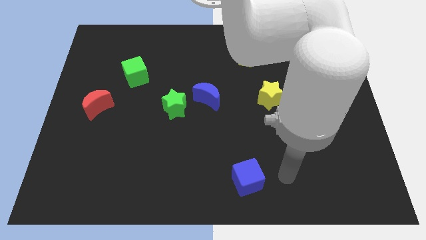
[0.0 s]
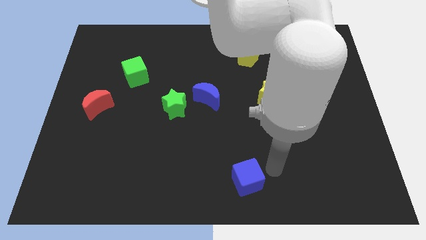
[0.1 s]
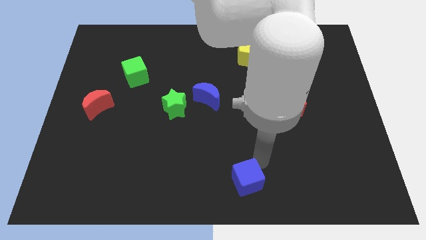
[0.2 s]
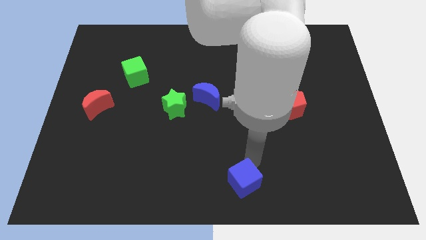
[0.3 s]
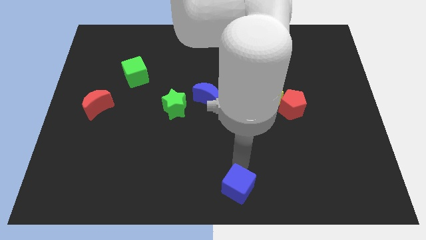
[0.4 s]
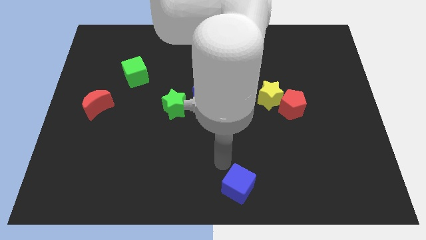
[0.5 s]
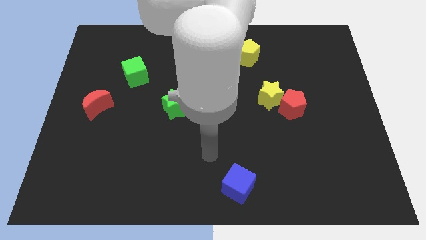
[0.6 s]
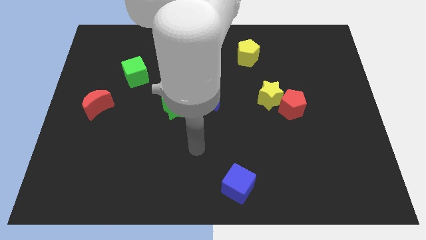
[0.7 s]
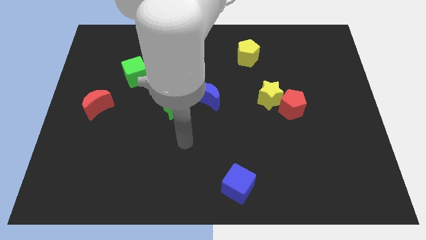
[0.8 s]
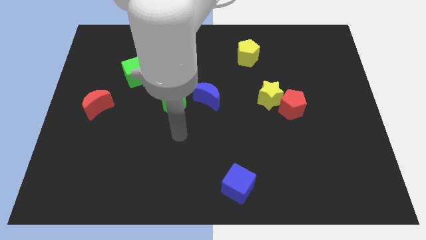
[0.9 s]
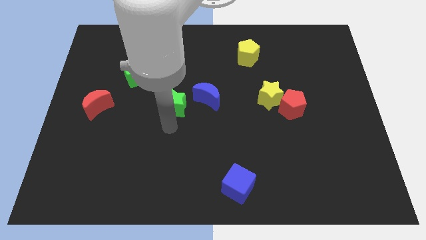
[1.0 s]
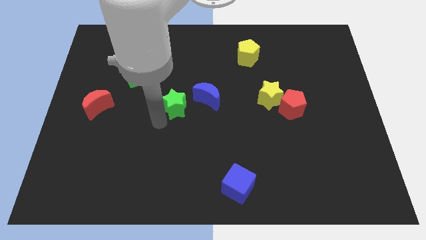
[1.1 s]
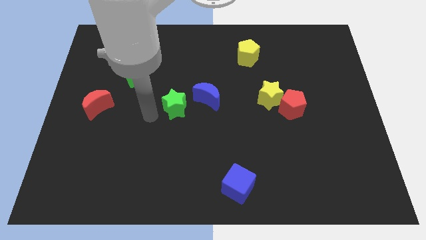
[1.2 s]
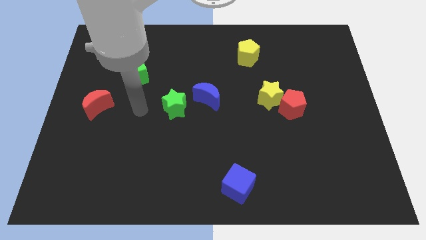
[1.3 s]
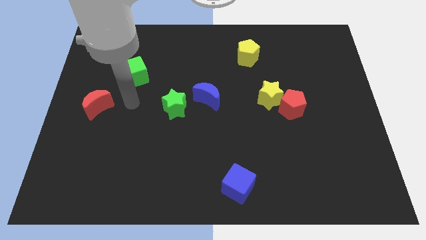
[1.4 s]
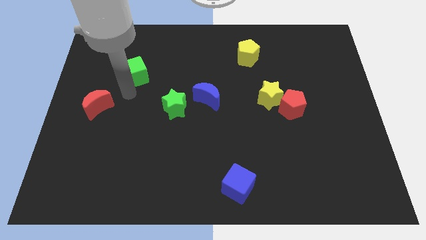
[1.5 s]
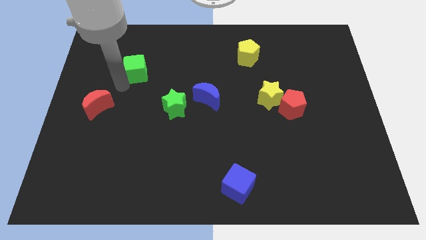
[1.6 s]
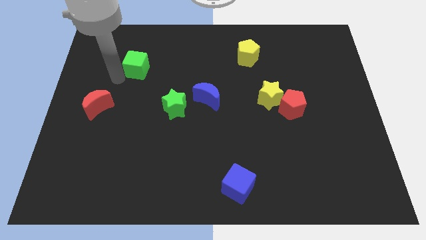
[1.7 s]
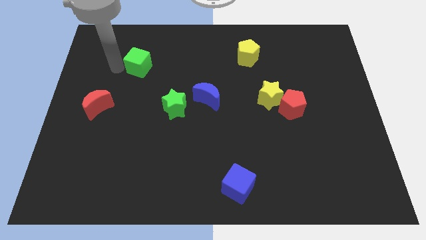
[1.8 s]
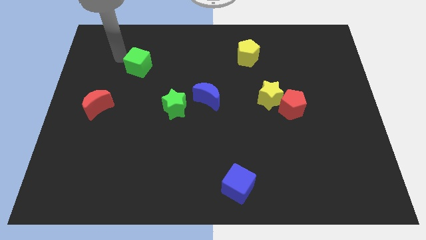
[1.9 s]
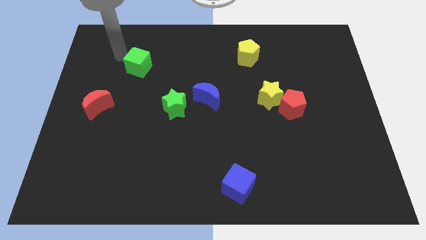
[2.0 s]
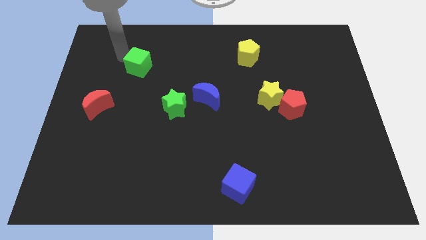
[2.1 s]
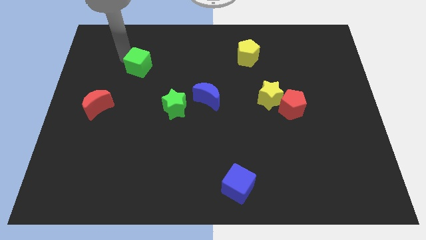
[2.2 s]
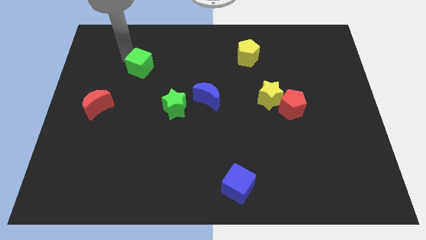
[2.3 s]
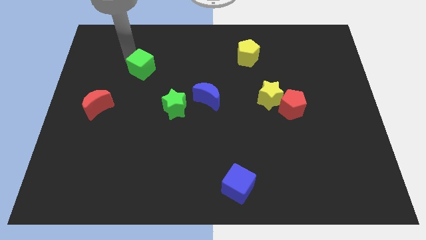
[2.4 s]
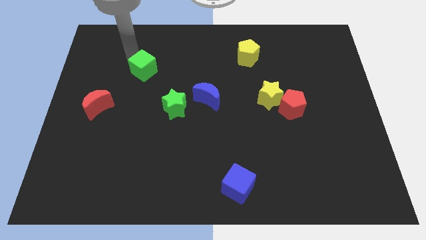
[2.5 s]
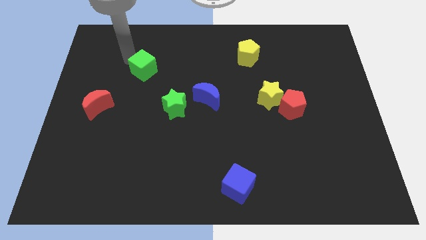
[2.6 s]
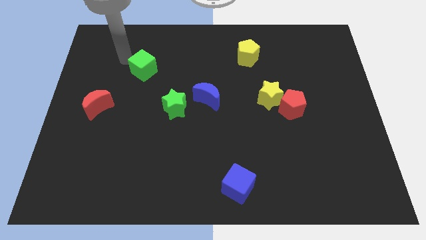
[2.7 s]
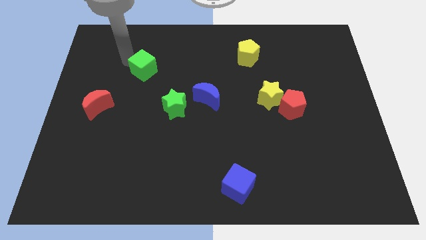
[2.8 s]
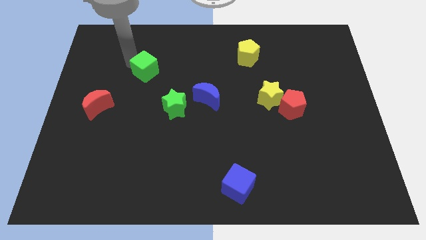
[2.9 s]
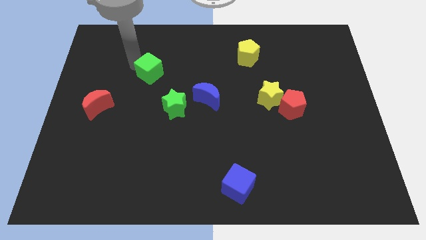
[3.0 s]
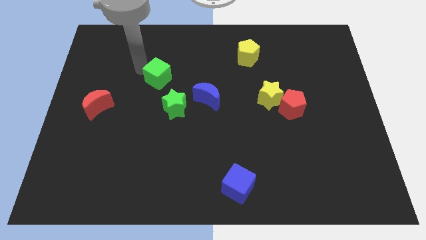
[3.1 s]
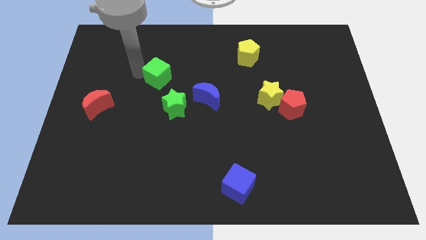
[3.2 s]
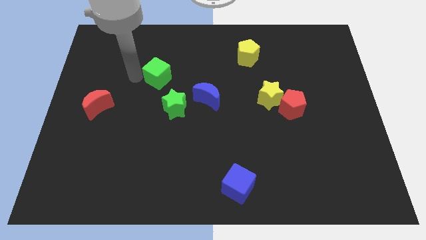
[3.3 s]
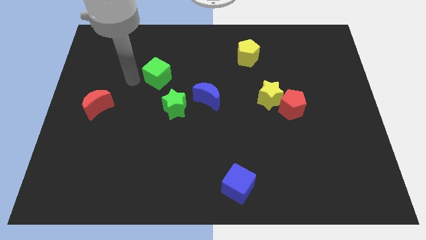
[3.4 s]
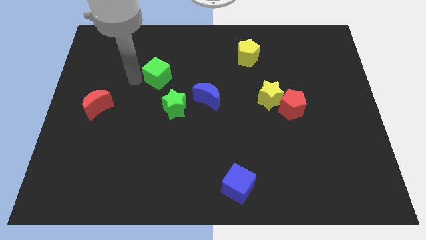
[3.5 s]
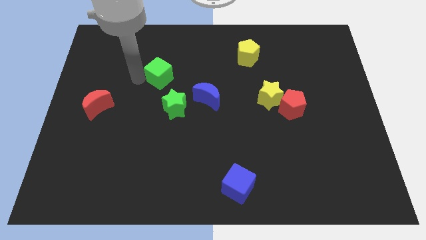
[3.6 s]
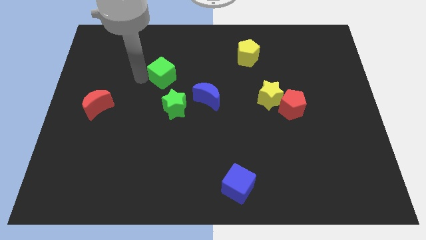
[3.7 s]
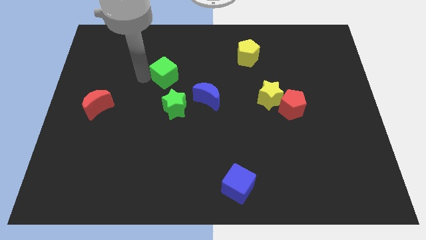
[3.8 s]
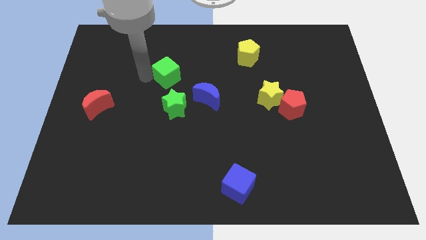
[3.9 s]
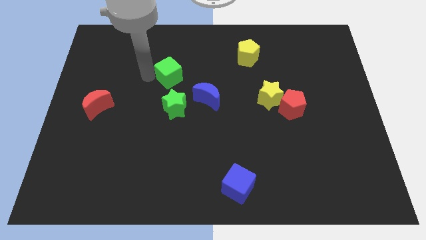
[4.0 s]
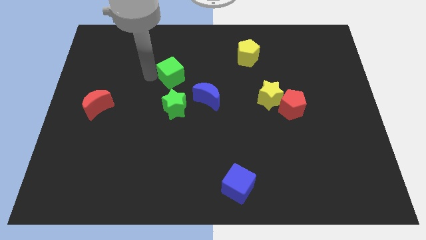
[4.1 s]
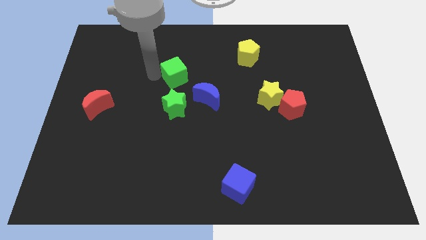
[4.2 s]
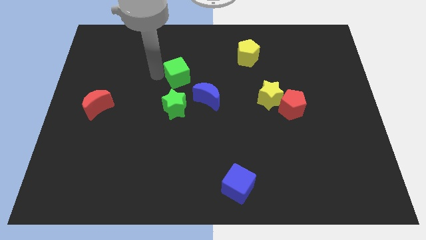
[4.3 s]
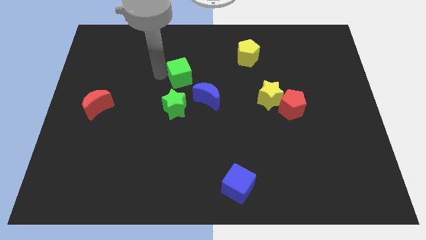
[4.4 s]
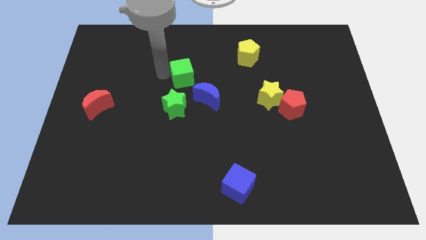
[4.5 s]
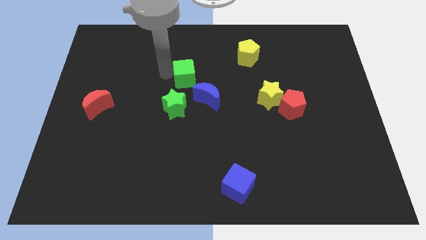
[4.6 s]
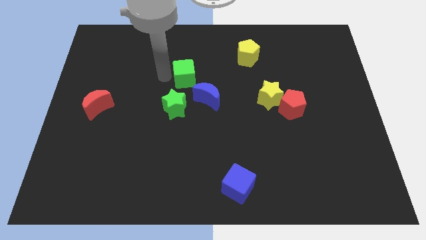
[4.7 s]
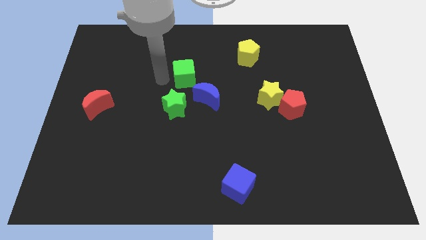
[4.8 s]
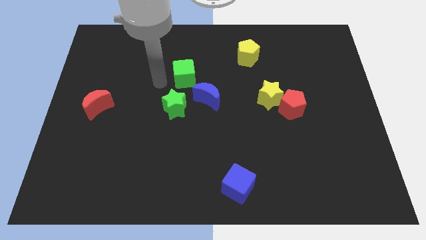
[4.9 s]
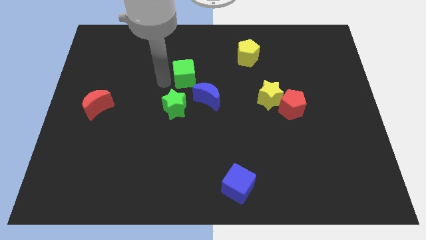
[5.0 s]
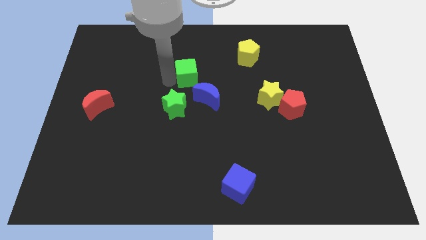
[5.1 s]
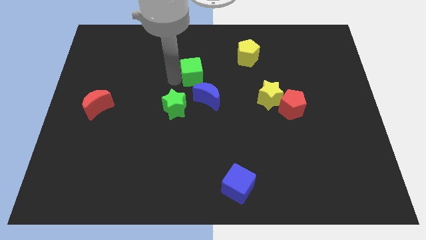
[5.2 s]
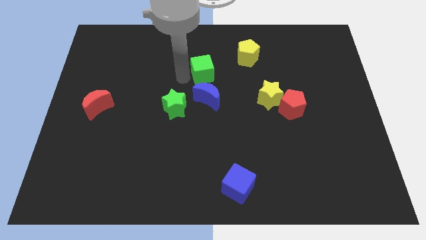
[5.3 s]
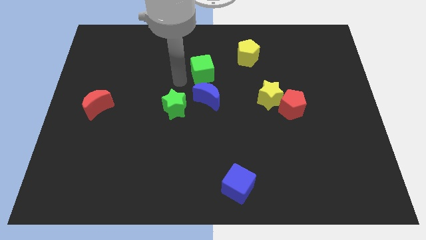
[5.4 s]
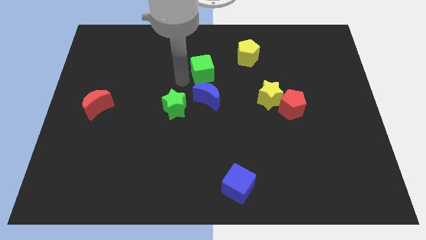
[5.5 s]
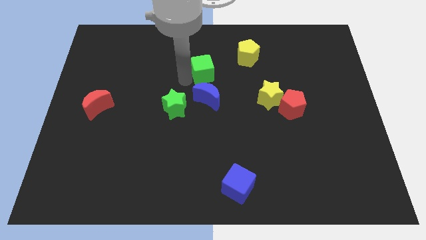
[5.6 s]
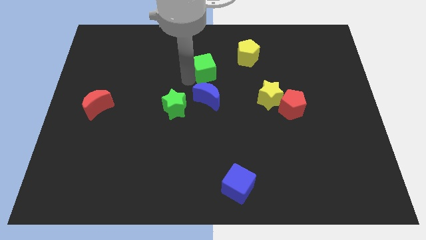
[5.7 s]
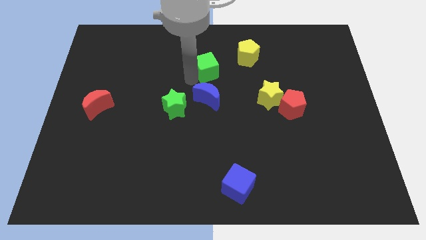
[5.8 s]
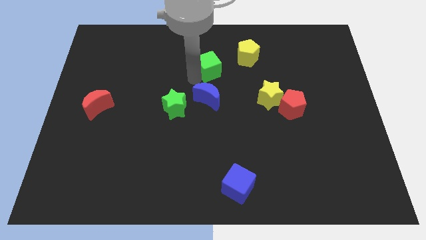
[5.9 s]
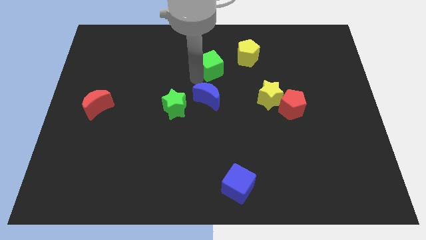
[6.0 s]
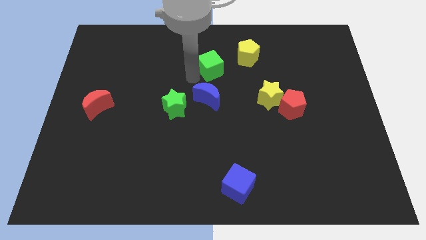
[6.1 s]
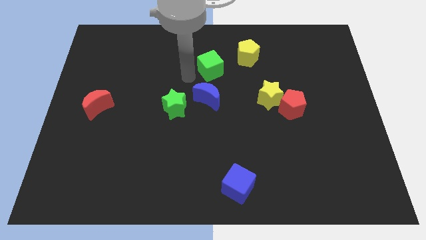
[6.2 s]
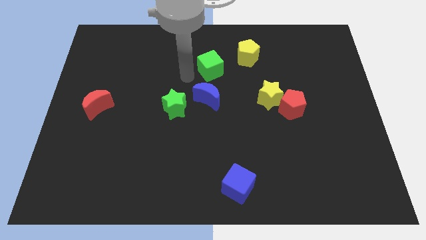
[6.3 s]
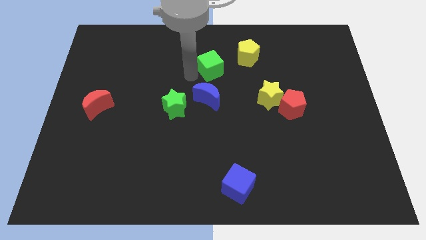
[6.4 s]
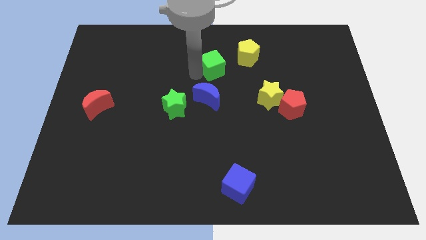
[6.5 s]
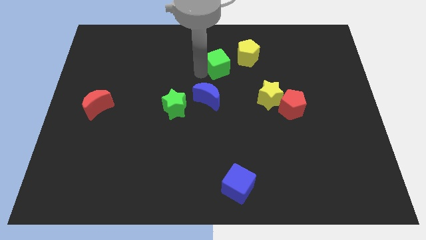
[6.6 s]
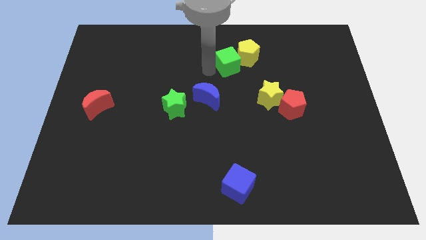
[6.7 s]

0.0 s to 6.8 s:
move the green cube to the yellow pentagon

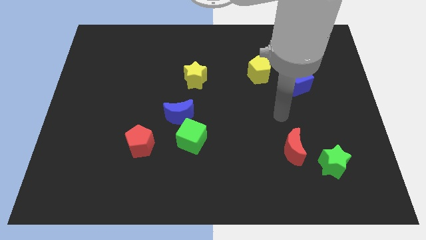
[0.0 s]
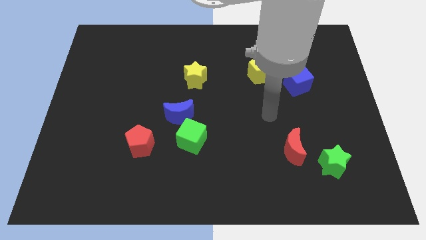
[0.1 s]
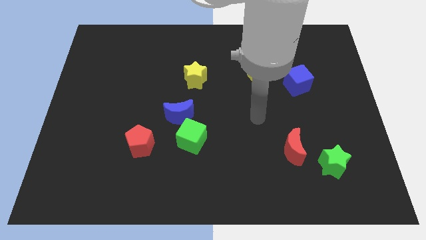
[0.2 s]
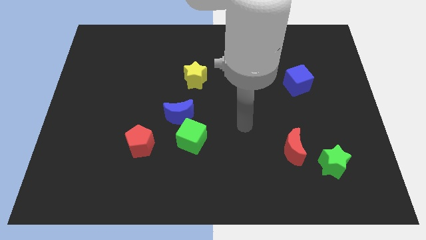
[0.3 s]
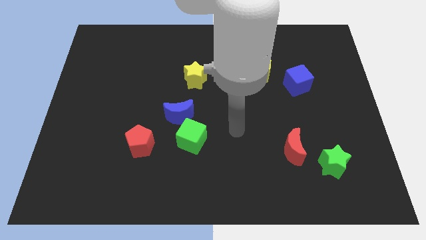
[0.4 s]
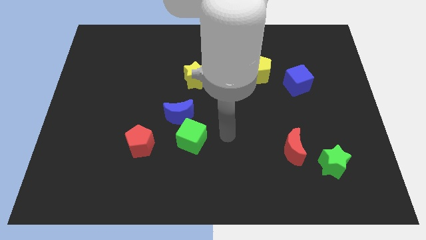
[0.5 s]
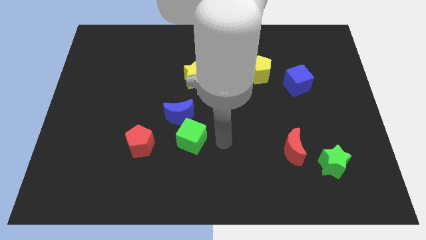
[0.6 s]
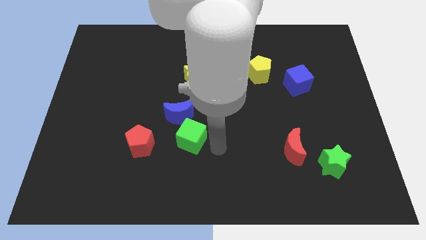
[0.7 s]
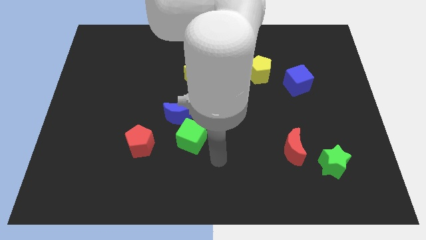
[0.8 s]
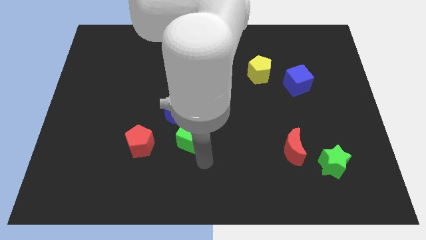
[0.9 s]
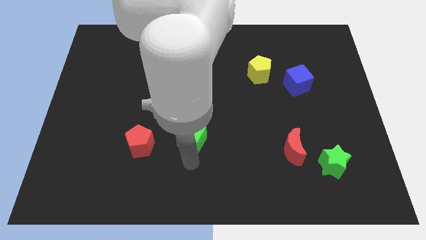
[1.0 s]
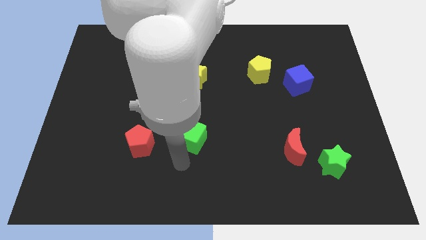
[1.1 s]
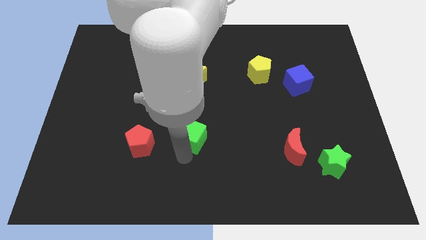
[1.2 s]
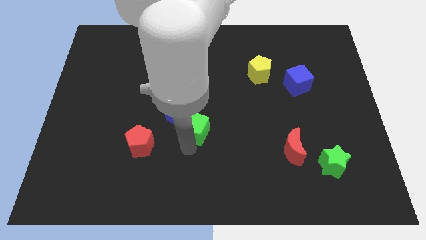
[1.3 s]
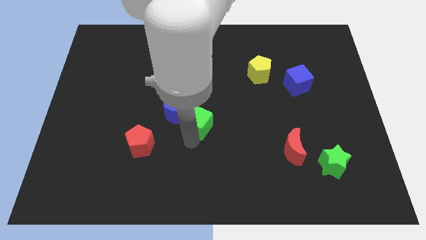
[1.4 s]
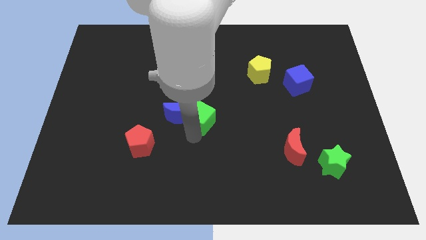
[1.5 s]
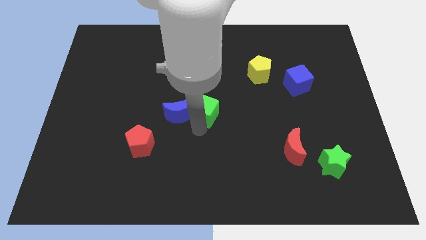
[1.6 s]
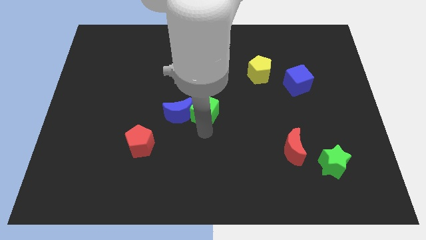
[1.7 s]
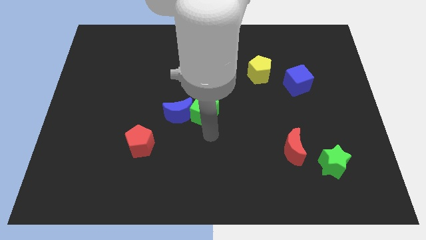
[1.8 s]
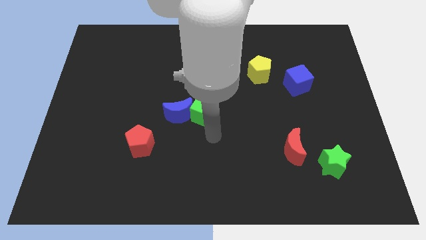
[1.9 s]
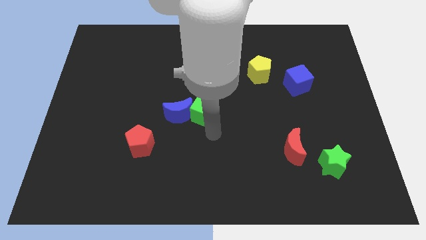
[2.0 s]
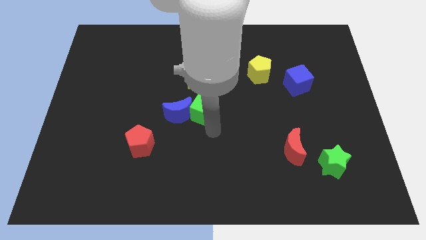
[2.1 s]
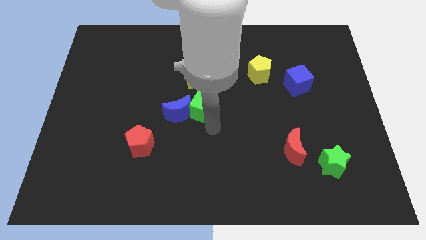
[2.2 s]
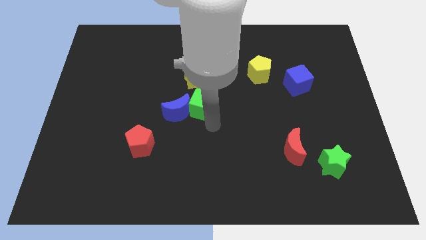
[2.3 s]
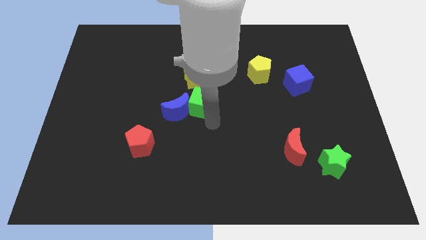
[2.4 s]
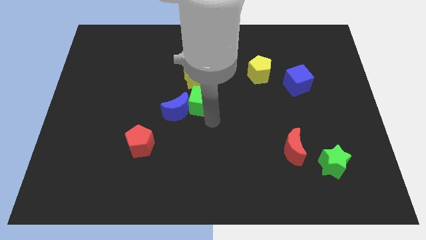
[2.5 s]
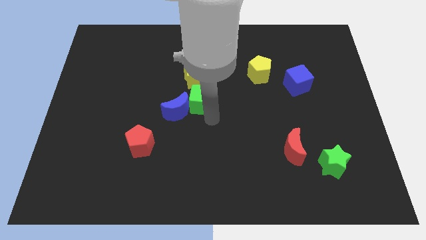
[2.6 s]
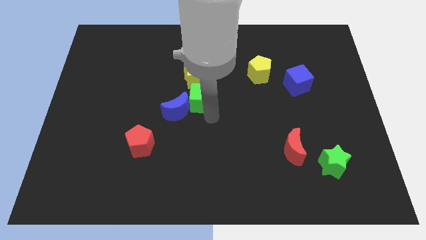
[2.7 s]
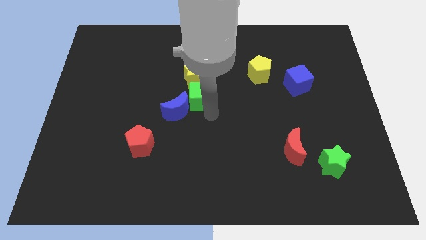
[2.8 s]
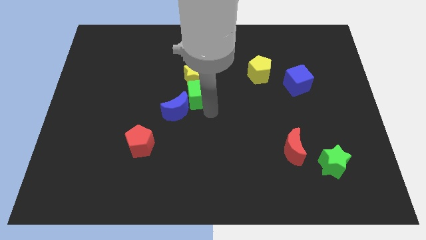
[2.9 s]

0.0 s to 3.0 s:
push the green cube close to the yellow star
